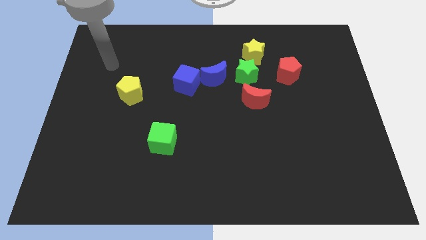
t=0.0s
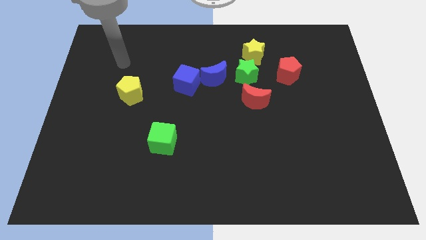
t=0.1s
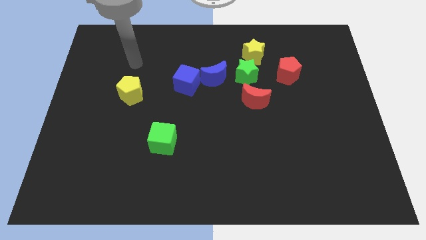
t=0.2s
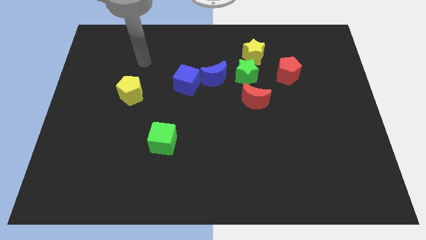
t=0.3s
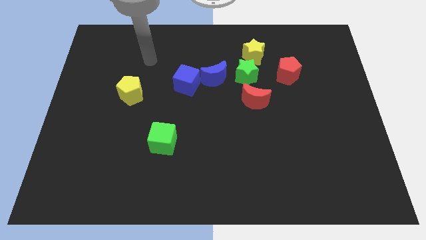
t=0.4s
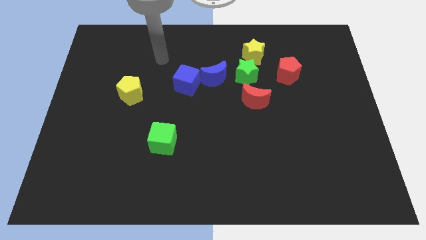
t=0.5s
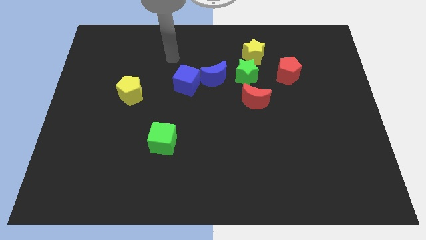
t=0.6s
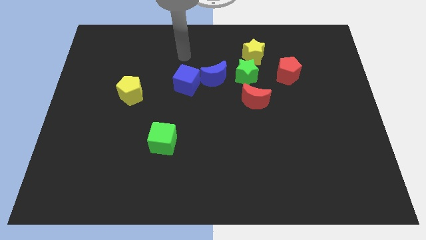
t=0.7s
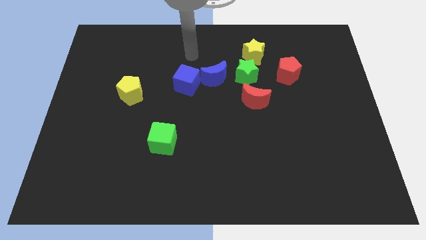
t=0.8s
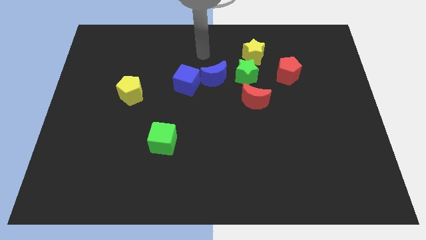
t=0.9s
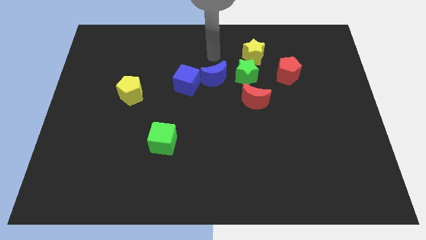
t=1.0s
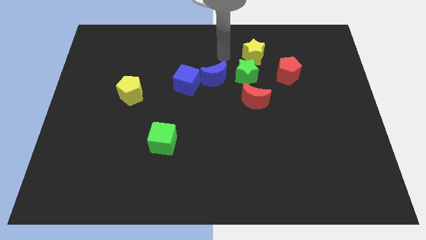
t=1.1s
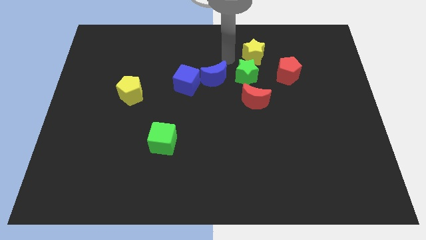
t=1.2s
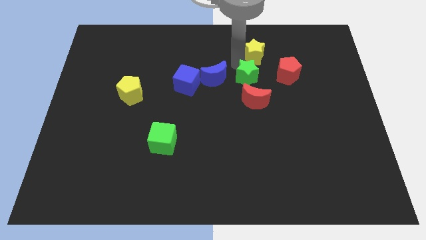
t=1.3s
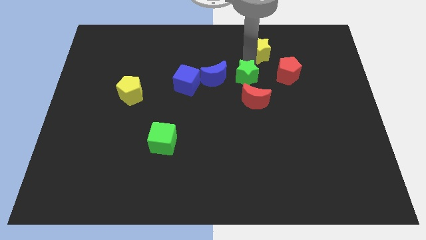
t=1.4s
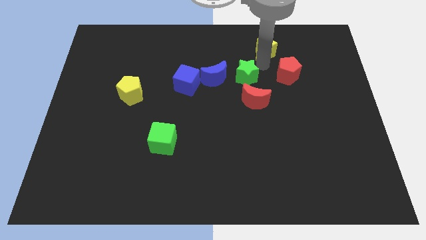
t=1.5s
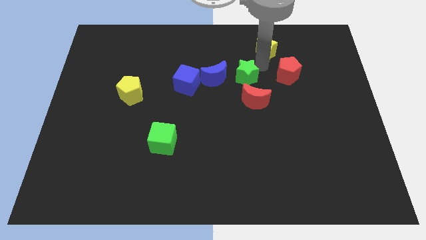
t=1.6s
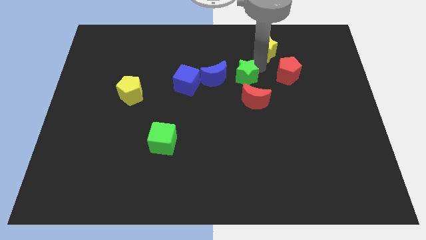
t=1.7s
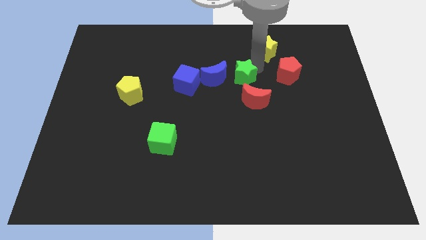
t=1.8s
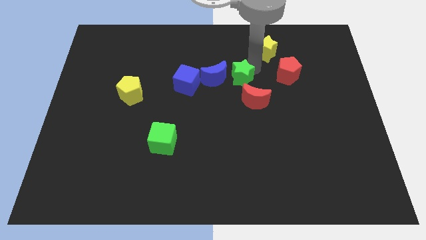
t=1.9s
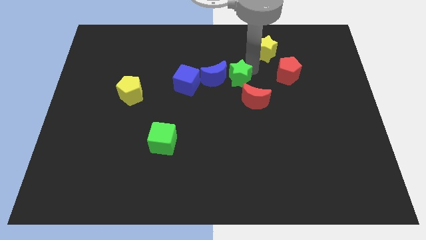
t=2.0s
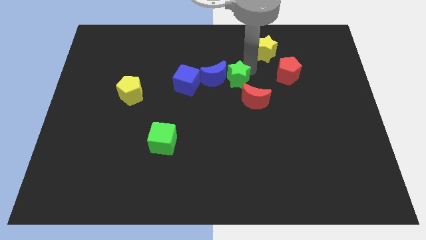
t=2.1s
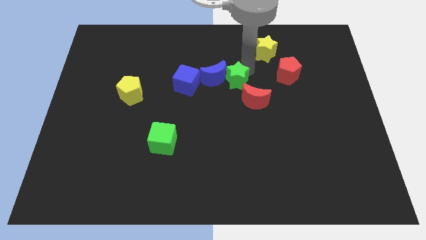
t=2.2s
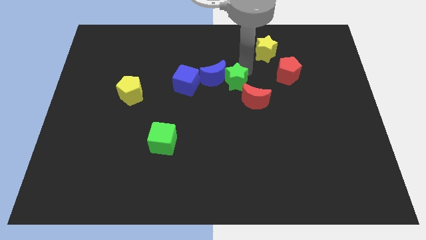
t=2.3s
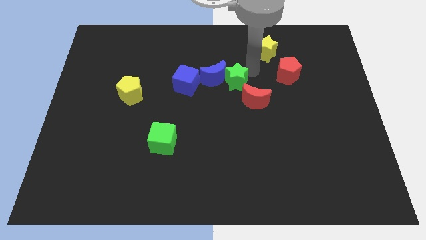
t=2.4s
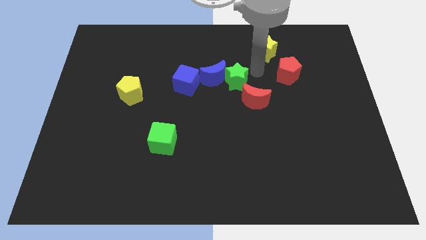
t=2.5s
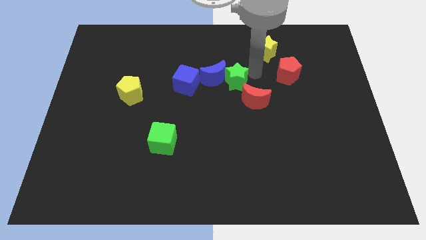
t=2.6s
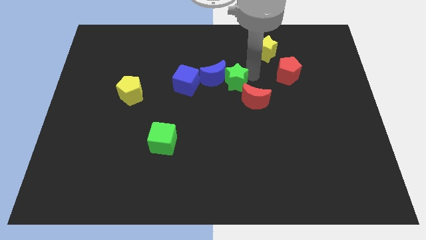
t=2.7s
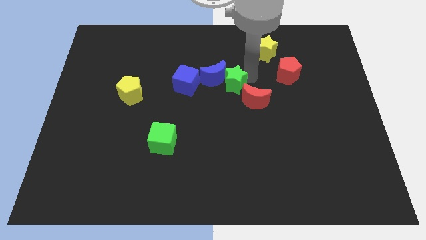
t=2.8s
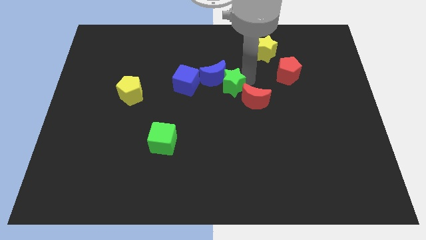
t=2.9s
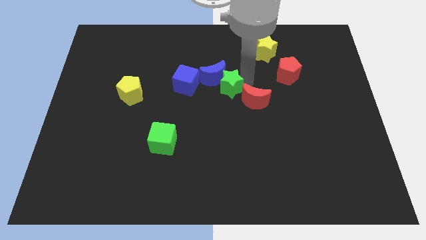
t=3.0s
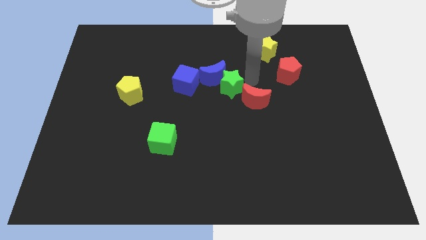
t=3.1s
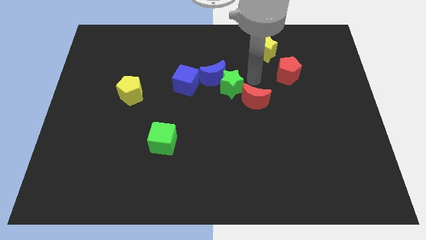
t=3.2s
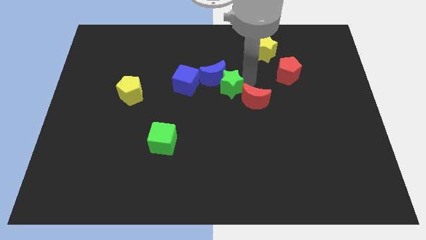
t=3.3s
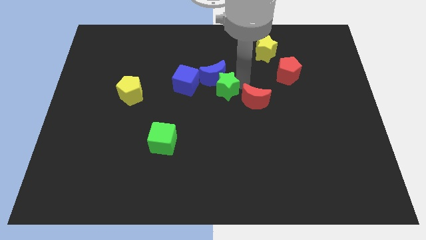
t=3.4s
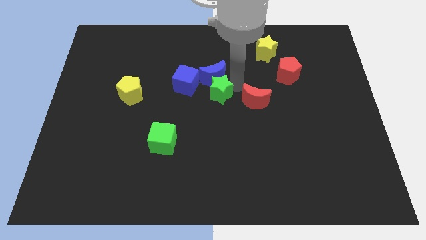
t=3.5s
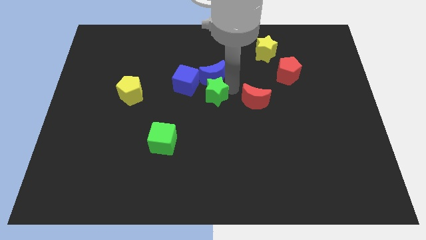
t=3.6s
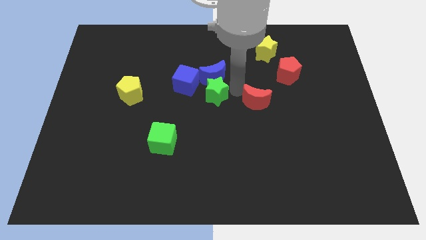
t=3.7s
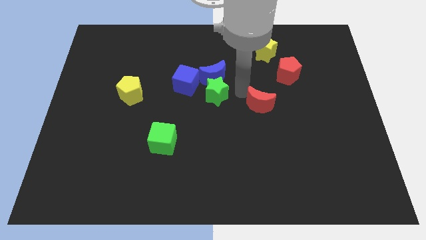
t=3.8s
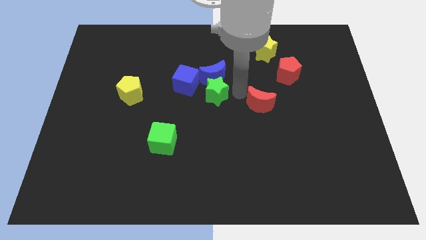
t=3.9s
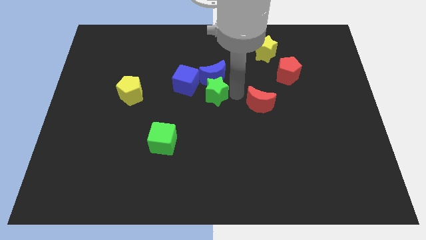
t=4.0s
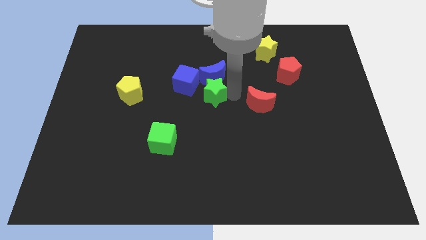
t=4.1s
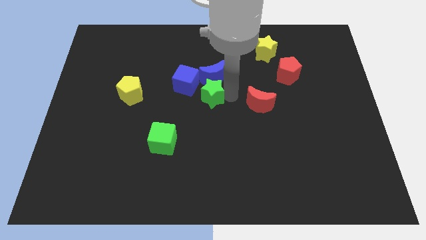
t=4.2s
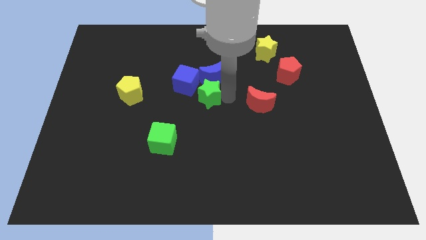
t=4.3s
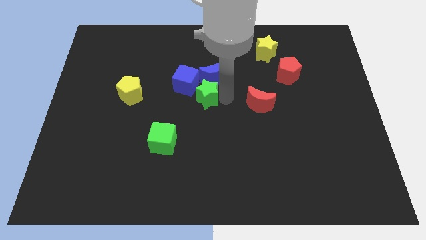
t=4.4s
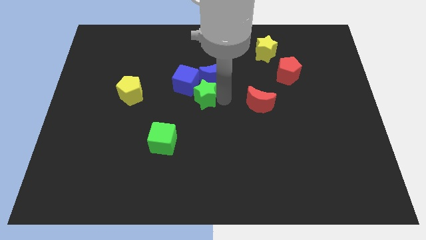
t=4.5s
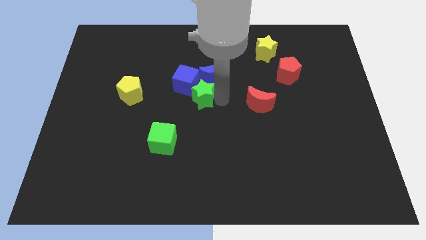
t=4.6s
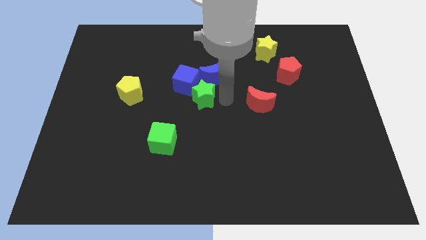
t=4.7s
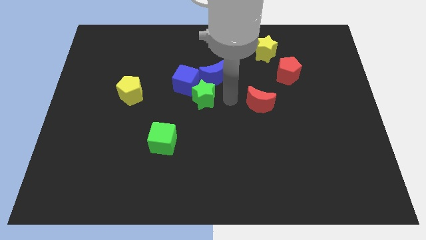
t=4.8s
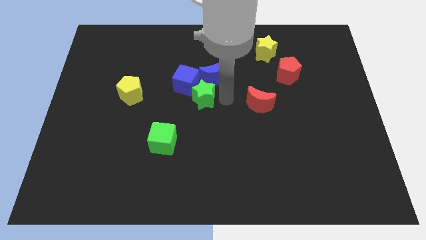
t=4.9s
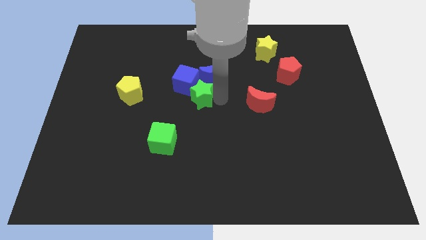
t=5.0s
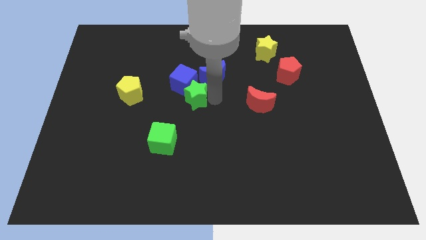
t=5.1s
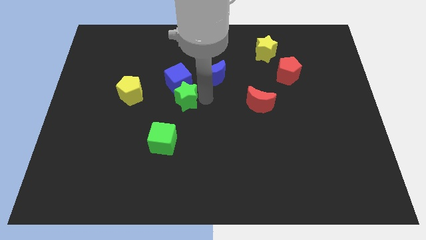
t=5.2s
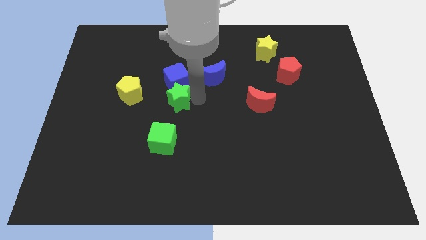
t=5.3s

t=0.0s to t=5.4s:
move the green star to the bottom left of the blue cube

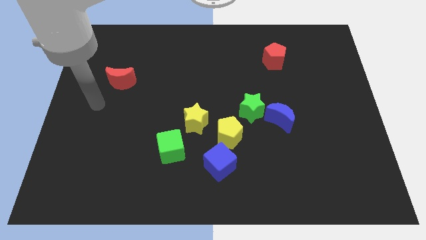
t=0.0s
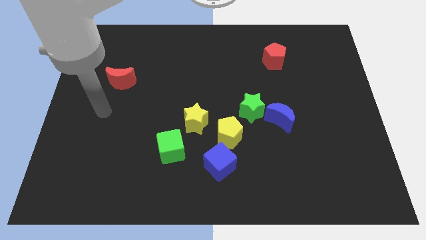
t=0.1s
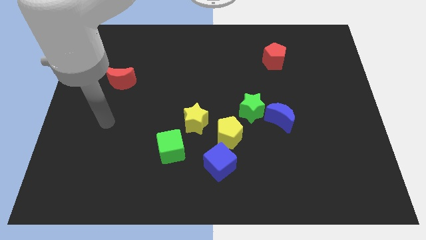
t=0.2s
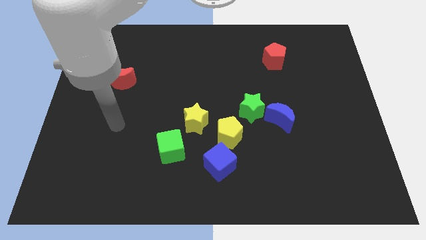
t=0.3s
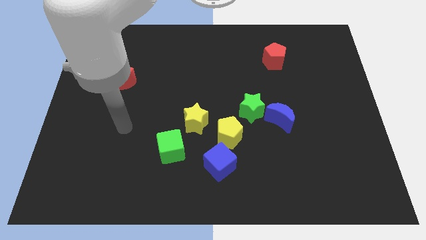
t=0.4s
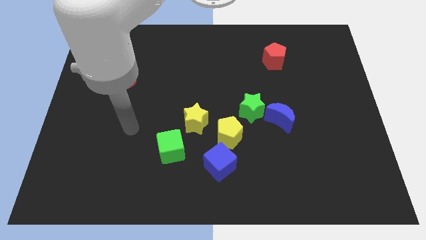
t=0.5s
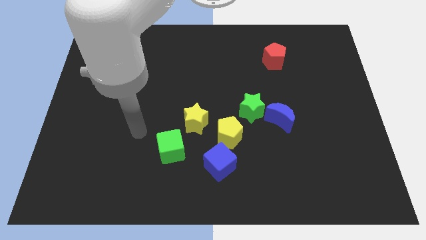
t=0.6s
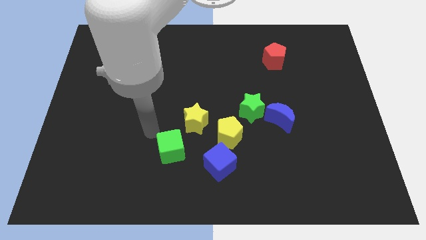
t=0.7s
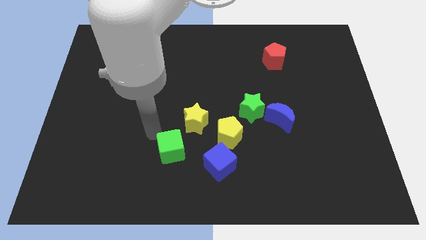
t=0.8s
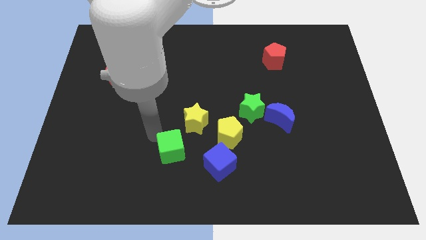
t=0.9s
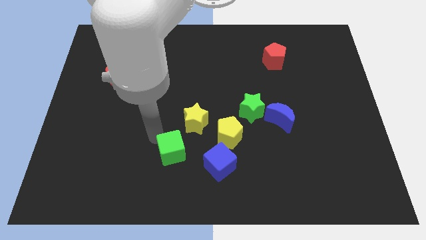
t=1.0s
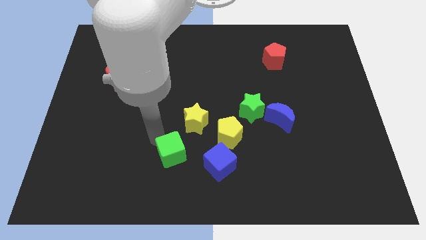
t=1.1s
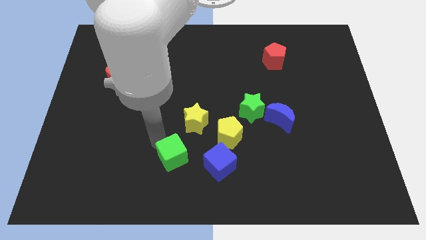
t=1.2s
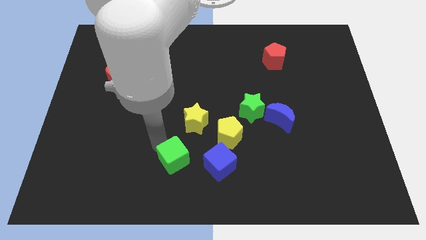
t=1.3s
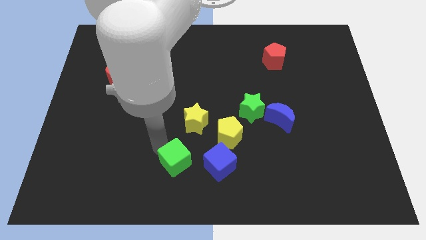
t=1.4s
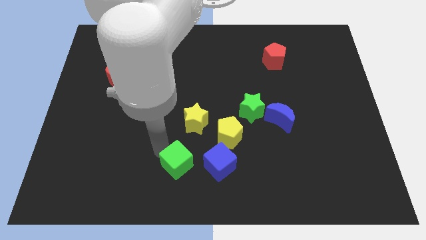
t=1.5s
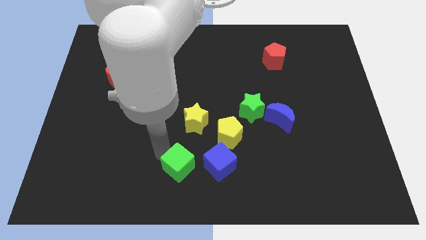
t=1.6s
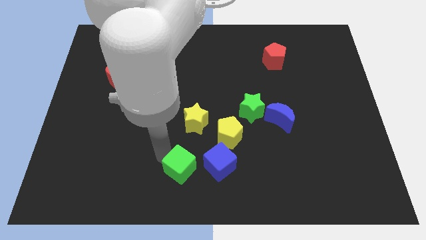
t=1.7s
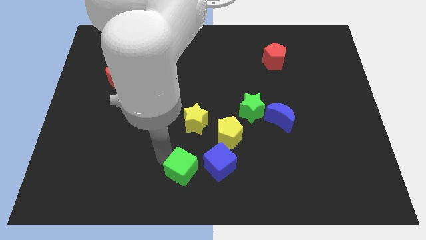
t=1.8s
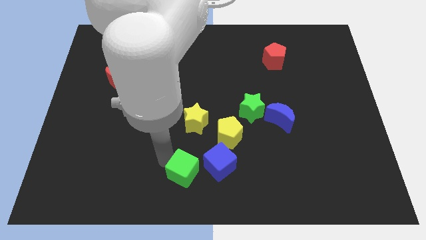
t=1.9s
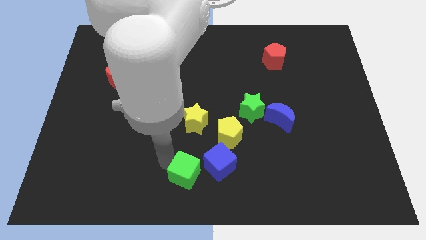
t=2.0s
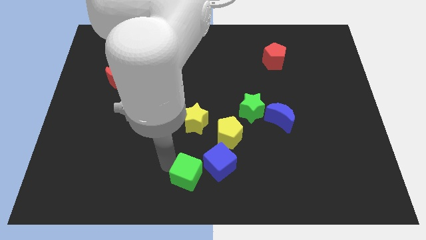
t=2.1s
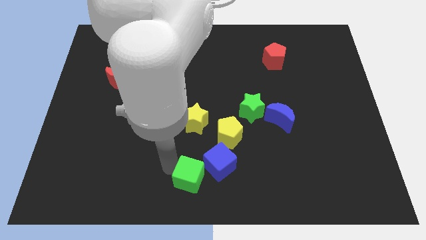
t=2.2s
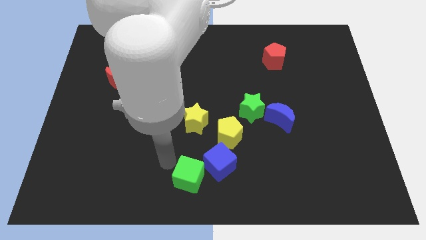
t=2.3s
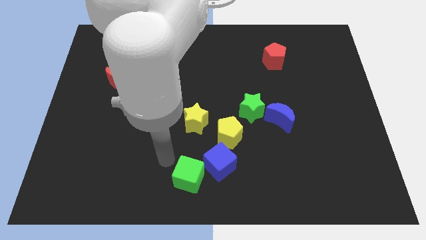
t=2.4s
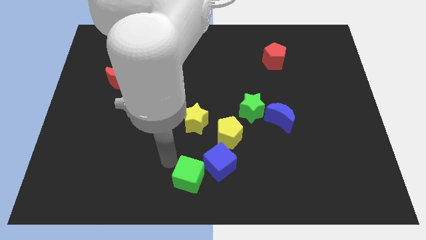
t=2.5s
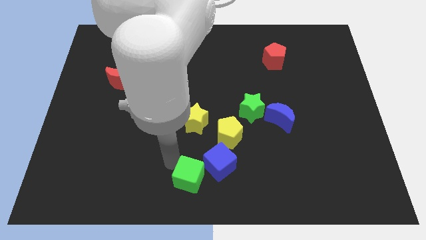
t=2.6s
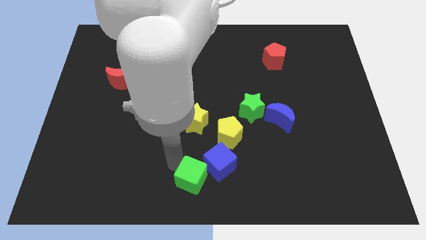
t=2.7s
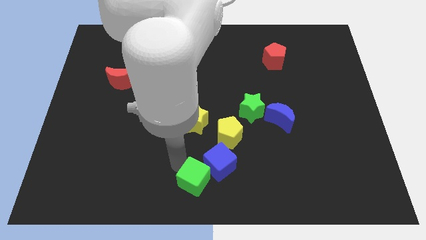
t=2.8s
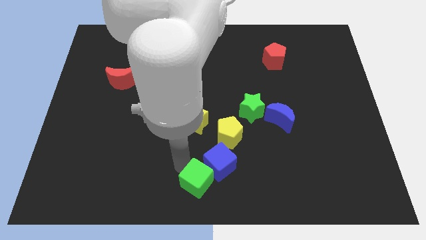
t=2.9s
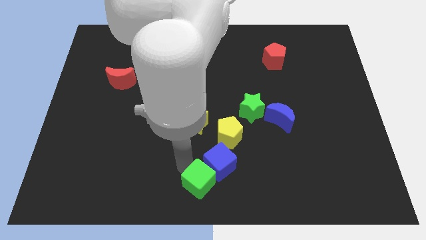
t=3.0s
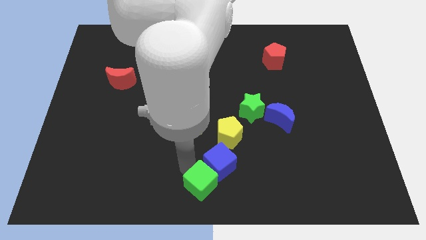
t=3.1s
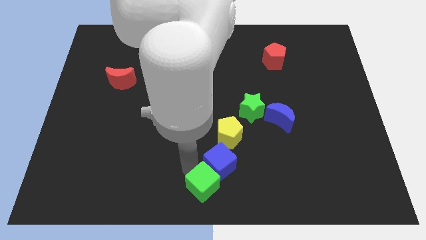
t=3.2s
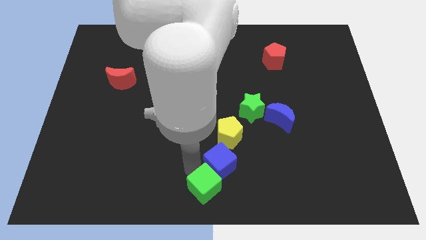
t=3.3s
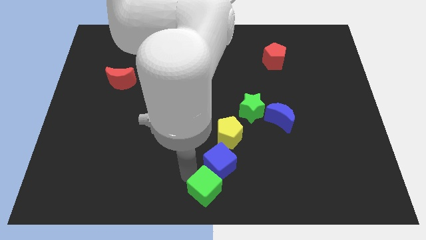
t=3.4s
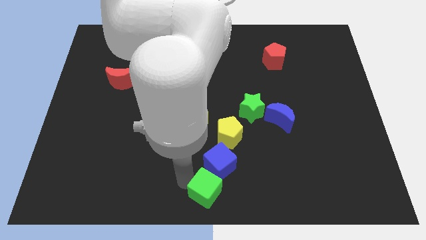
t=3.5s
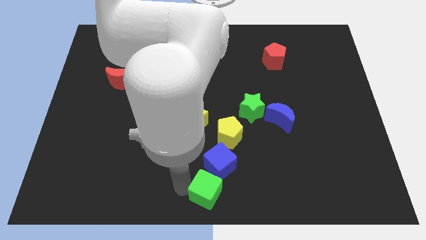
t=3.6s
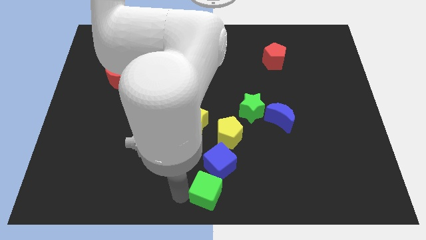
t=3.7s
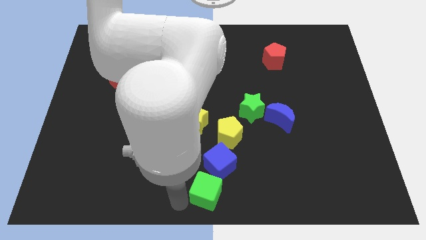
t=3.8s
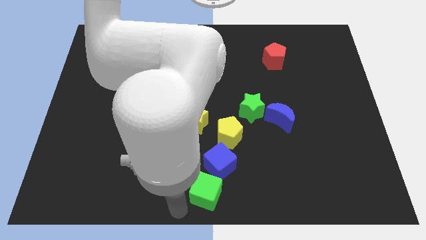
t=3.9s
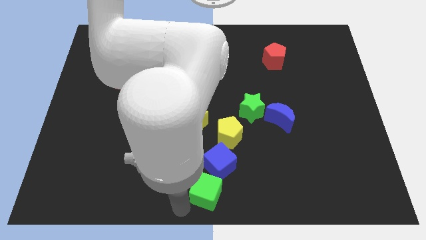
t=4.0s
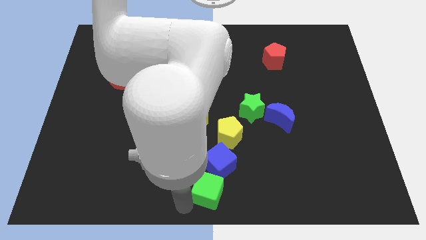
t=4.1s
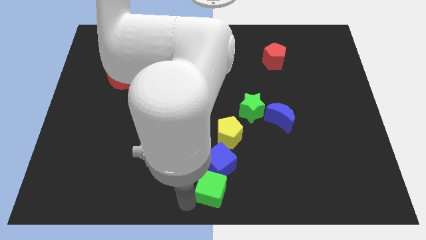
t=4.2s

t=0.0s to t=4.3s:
put the green cube to the bottom of the yellow pentagon
